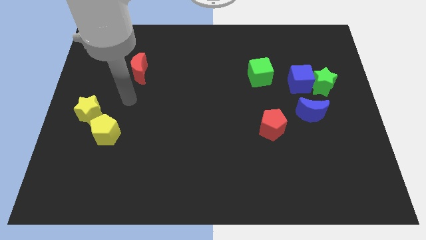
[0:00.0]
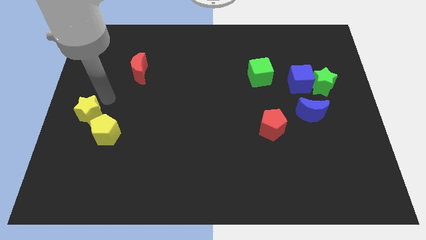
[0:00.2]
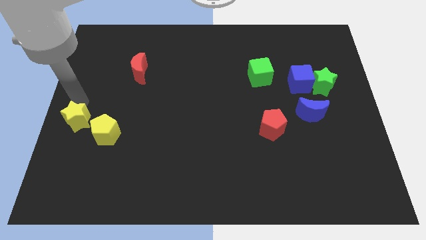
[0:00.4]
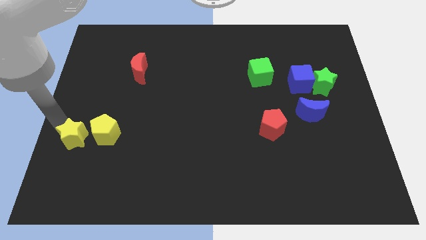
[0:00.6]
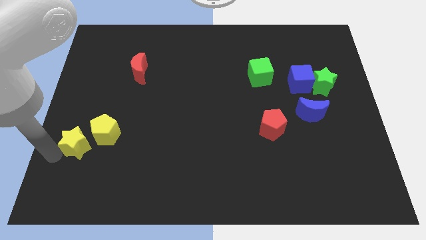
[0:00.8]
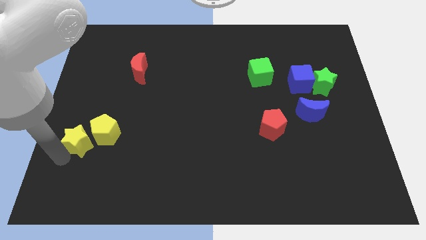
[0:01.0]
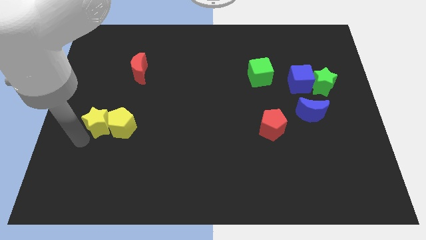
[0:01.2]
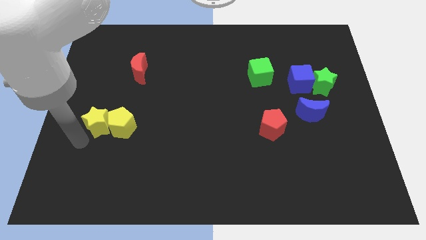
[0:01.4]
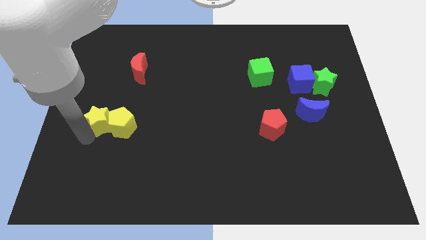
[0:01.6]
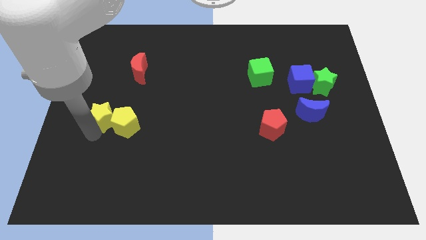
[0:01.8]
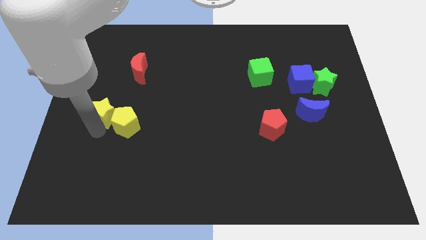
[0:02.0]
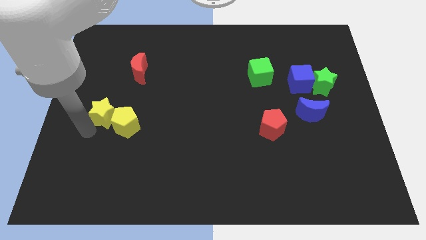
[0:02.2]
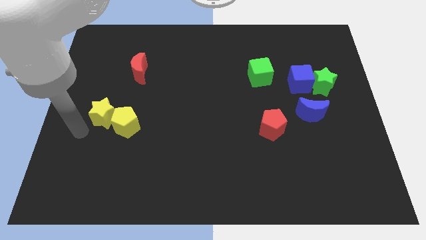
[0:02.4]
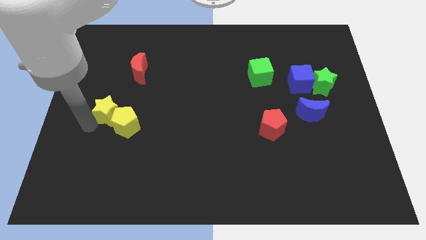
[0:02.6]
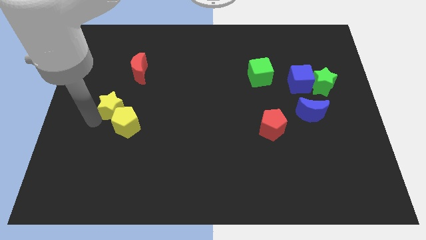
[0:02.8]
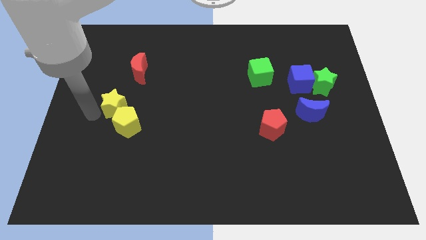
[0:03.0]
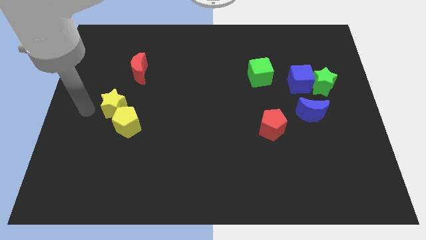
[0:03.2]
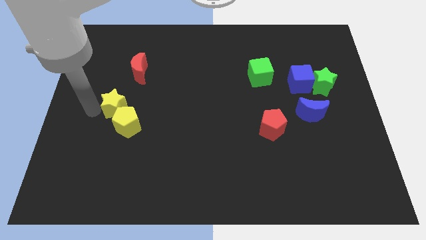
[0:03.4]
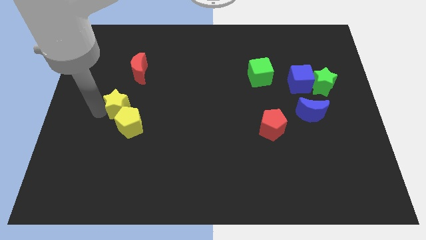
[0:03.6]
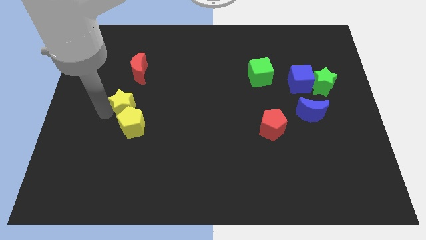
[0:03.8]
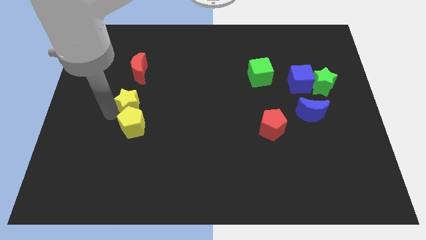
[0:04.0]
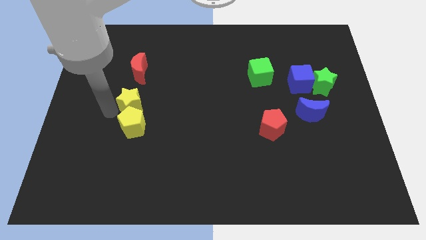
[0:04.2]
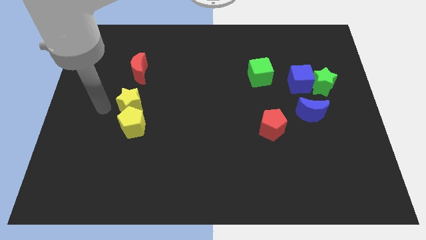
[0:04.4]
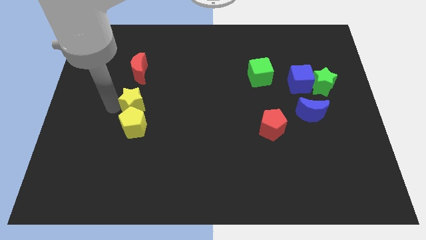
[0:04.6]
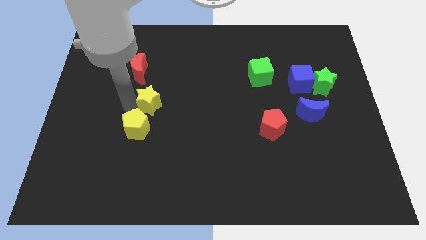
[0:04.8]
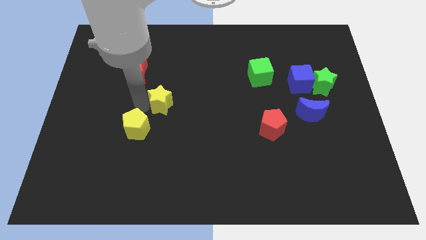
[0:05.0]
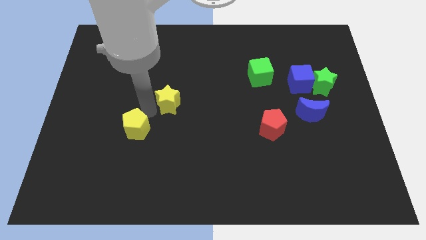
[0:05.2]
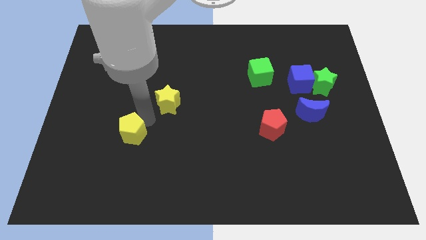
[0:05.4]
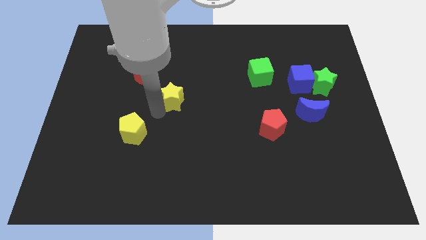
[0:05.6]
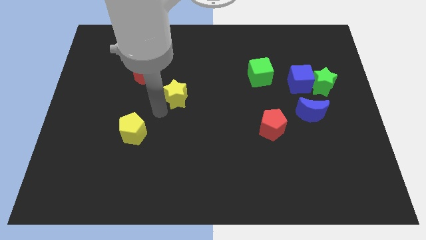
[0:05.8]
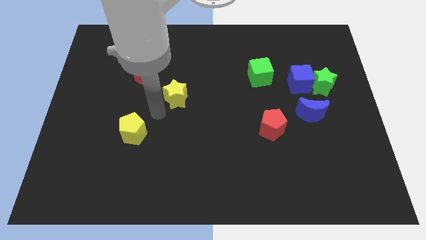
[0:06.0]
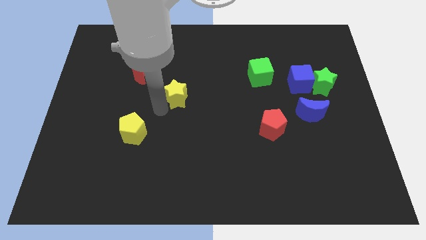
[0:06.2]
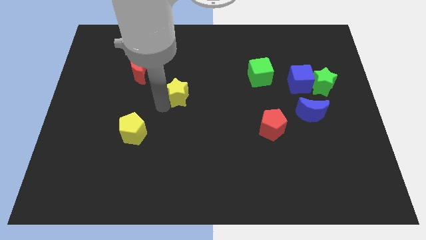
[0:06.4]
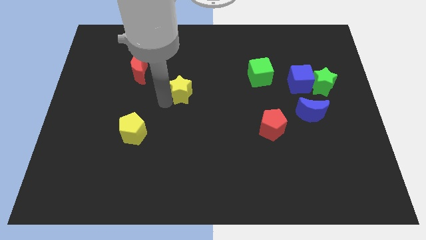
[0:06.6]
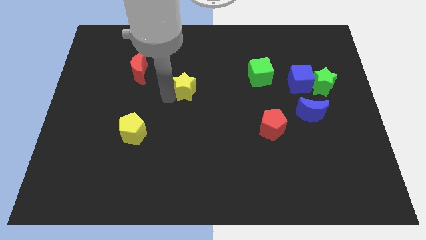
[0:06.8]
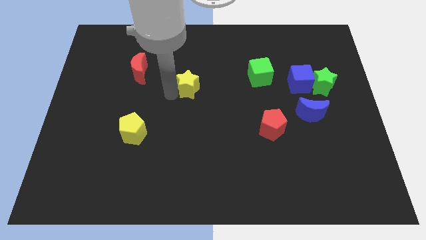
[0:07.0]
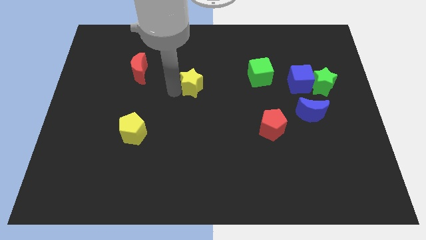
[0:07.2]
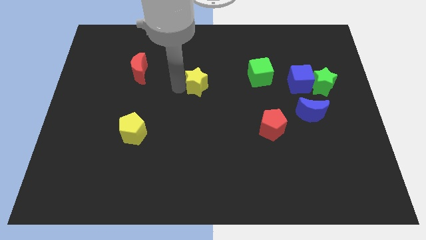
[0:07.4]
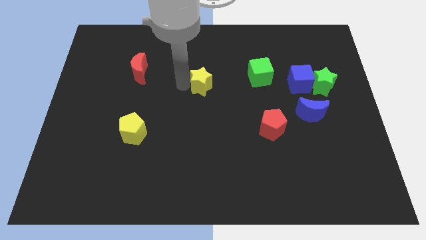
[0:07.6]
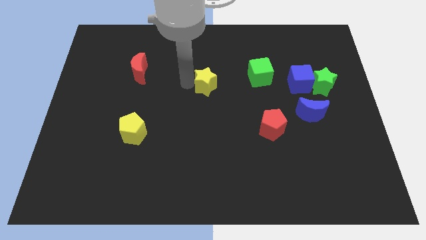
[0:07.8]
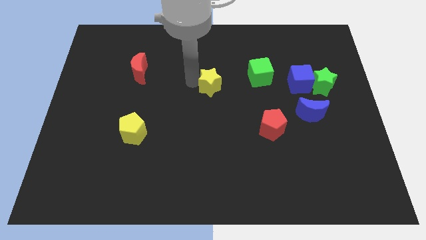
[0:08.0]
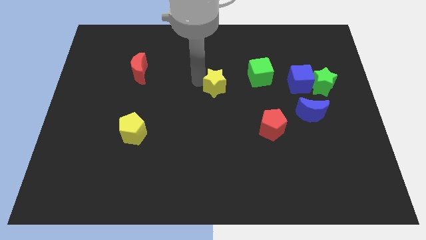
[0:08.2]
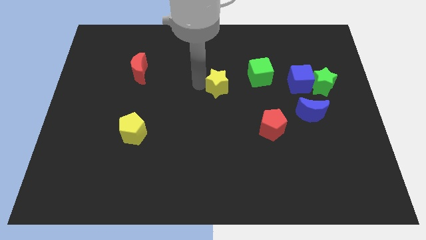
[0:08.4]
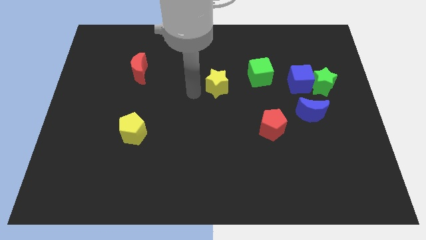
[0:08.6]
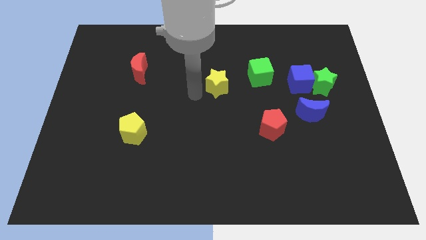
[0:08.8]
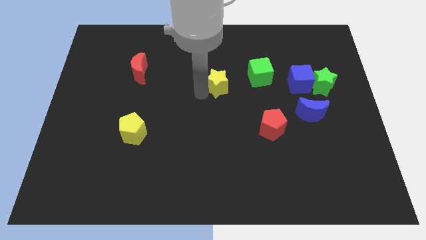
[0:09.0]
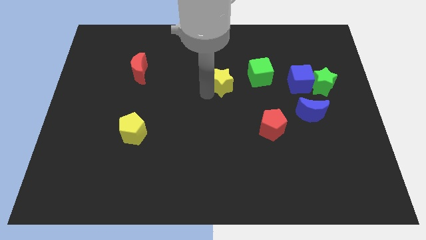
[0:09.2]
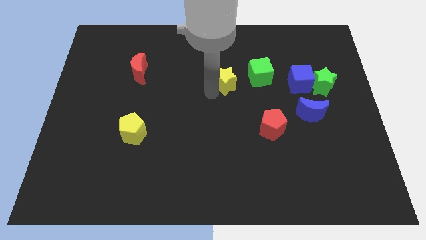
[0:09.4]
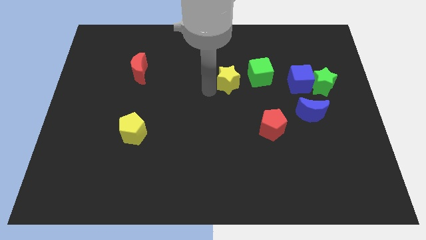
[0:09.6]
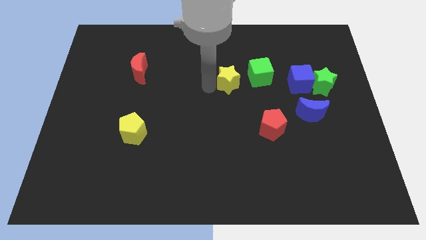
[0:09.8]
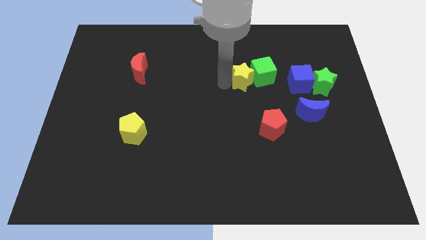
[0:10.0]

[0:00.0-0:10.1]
move the yellow star next to the green cube

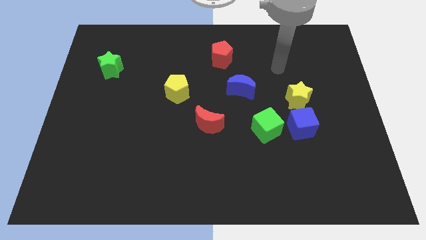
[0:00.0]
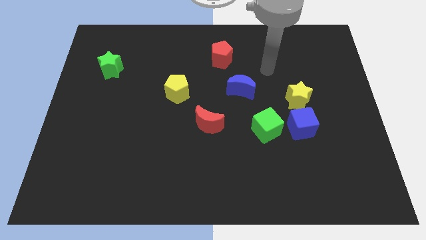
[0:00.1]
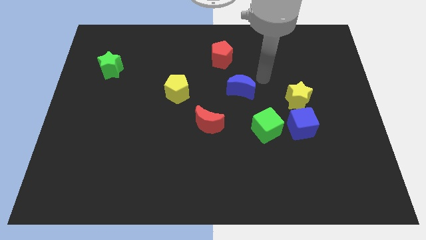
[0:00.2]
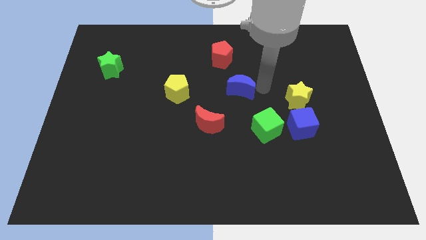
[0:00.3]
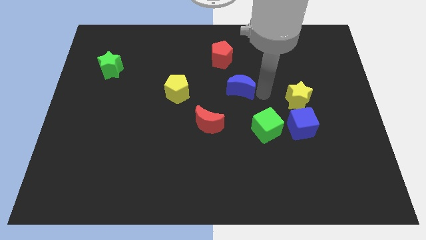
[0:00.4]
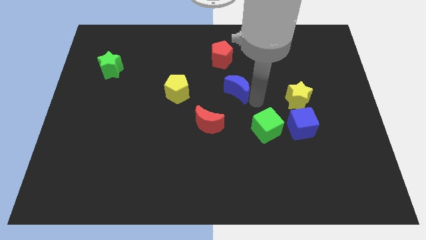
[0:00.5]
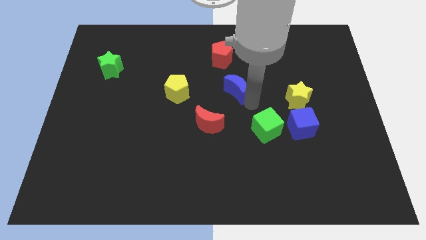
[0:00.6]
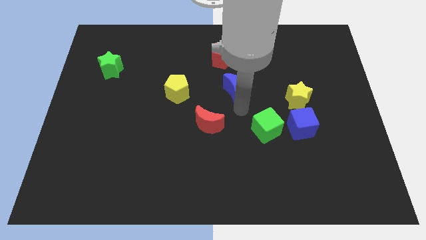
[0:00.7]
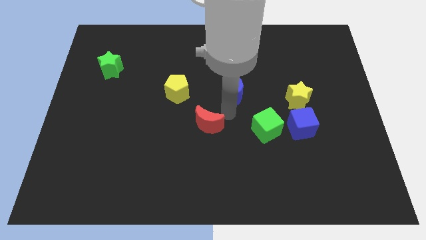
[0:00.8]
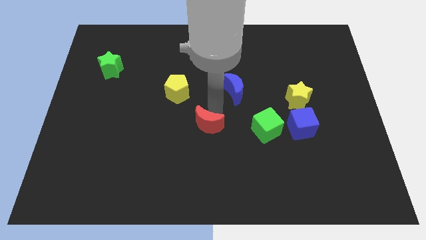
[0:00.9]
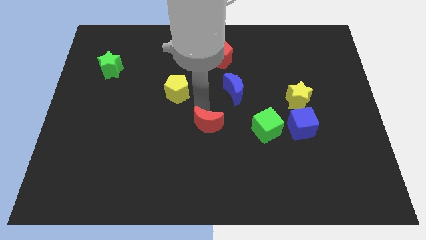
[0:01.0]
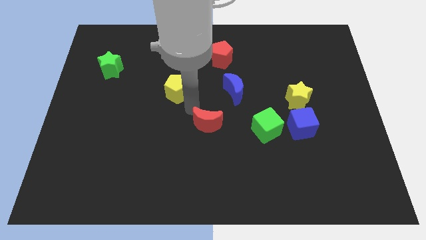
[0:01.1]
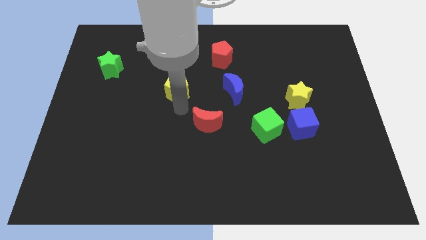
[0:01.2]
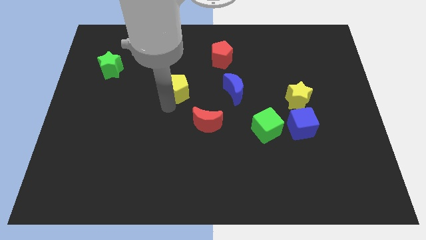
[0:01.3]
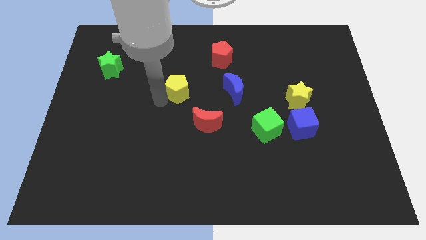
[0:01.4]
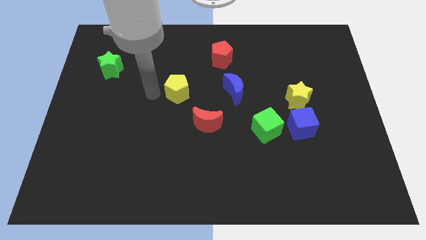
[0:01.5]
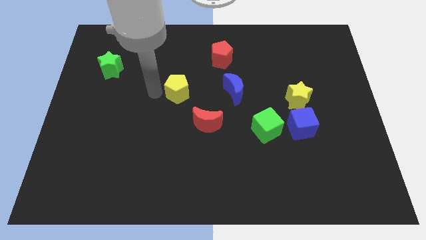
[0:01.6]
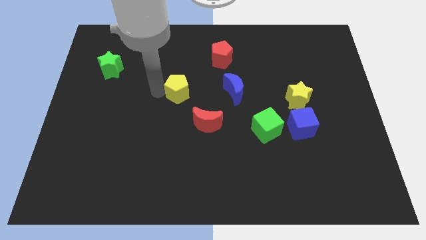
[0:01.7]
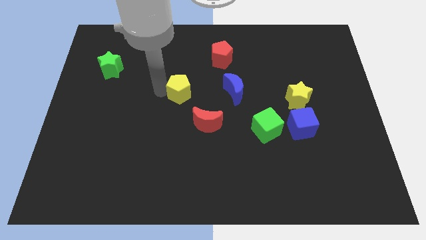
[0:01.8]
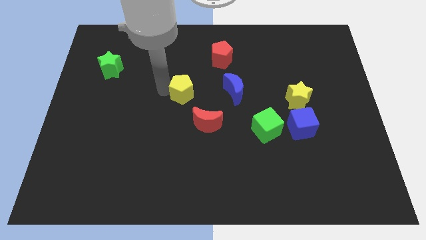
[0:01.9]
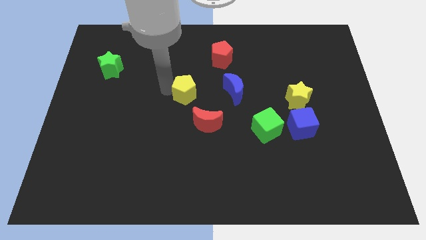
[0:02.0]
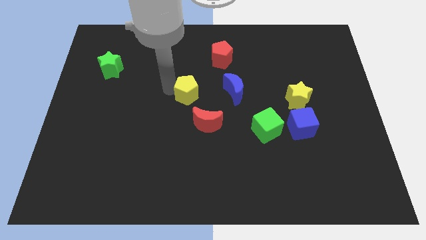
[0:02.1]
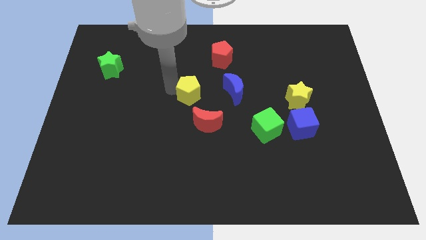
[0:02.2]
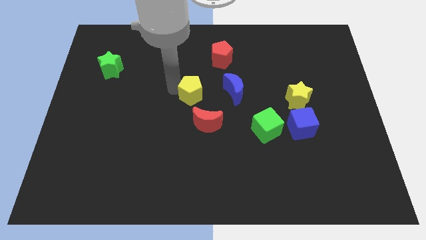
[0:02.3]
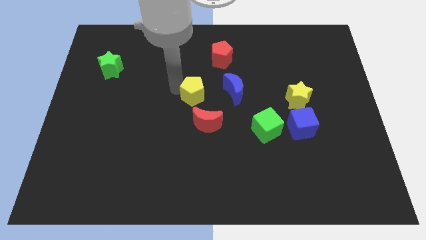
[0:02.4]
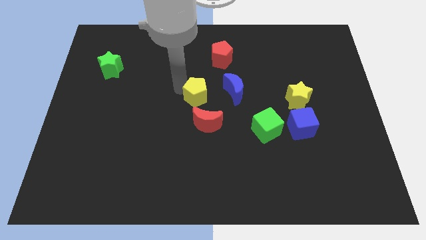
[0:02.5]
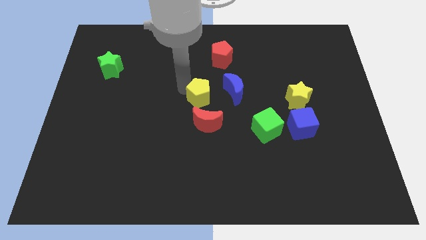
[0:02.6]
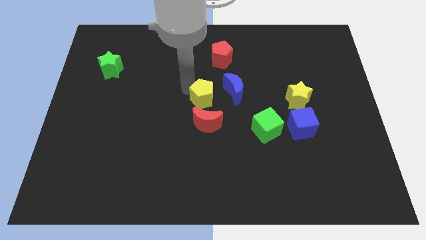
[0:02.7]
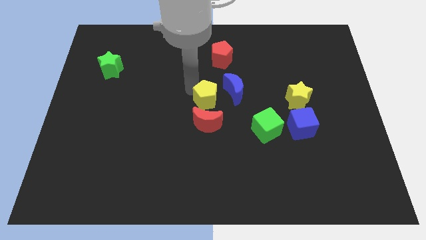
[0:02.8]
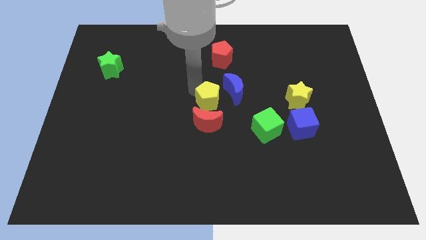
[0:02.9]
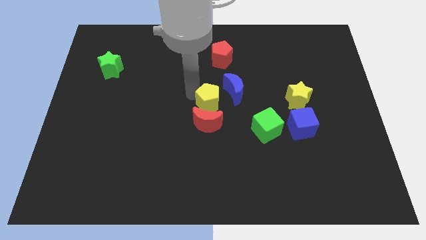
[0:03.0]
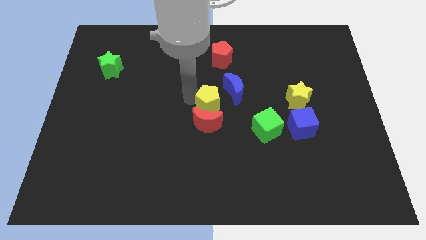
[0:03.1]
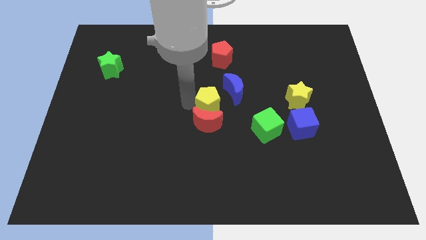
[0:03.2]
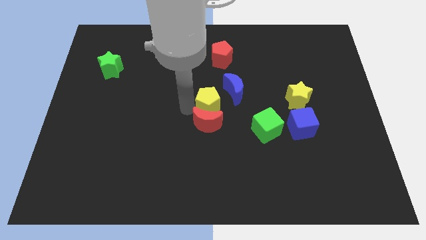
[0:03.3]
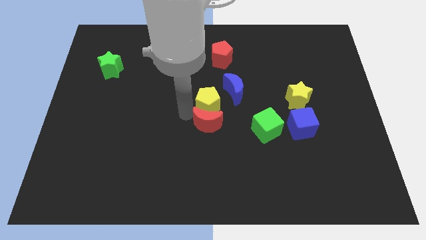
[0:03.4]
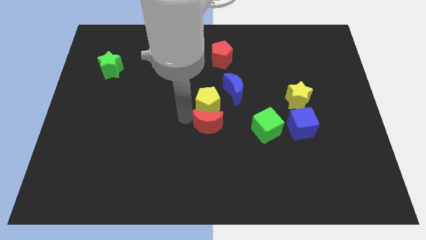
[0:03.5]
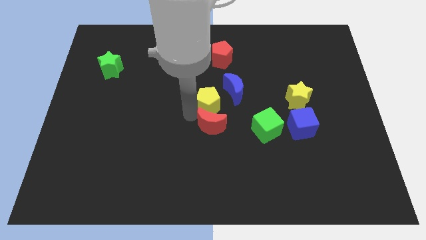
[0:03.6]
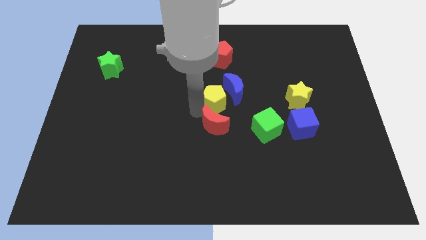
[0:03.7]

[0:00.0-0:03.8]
move the yellow pentagon to the blue moon
